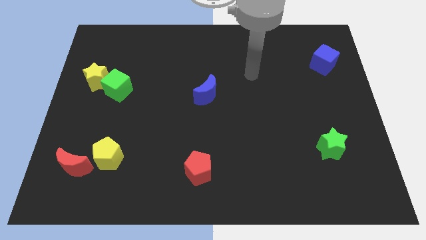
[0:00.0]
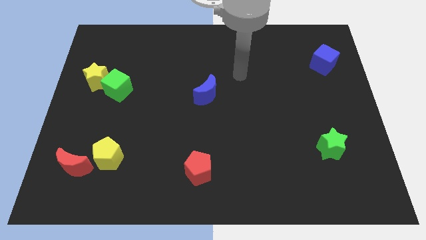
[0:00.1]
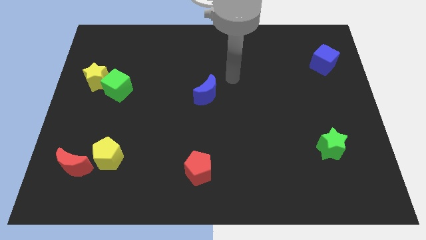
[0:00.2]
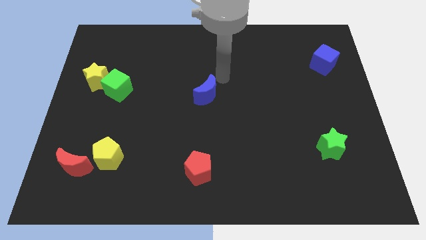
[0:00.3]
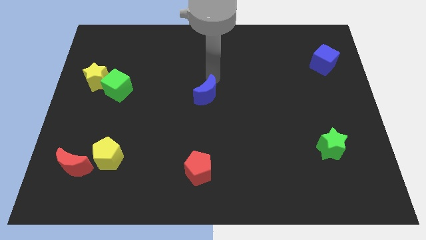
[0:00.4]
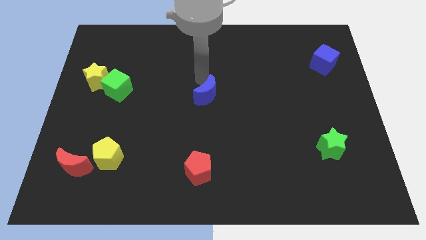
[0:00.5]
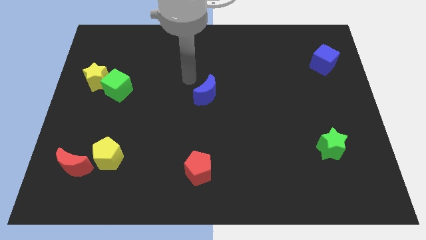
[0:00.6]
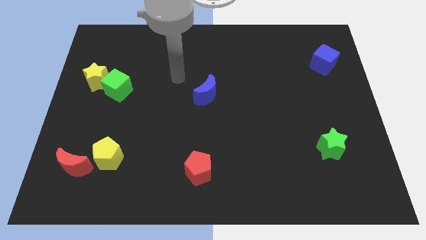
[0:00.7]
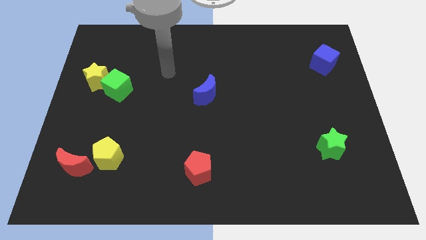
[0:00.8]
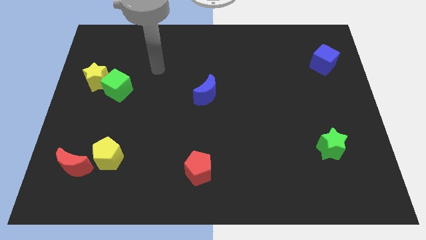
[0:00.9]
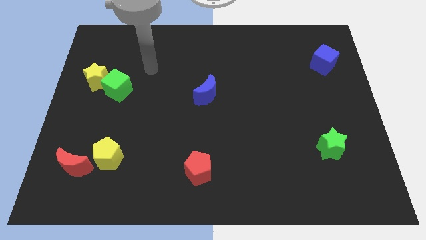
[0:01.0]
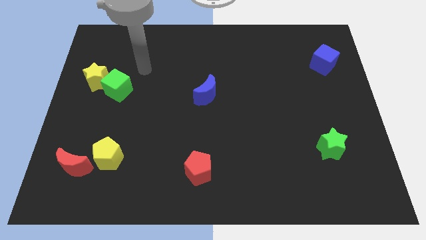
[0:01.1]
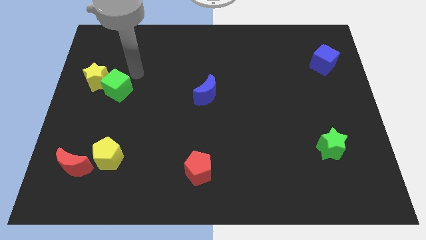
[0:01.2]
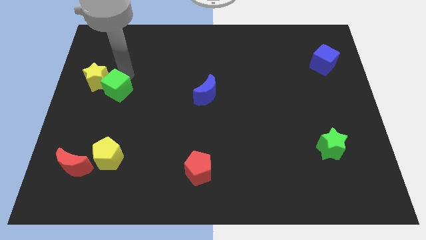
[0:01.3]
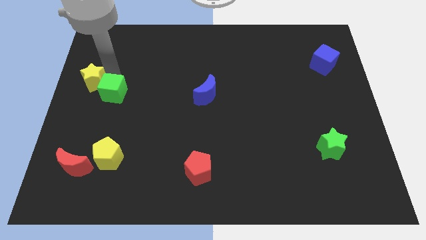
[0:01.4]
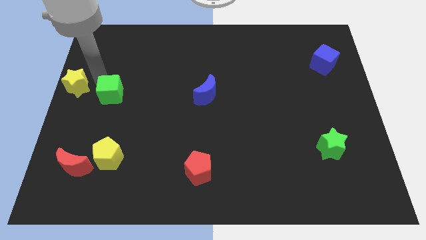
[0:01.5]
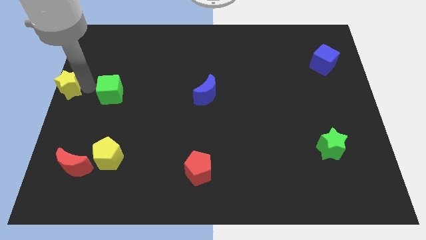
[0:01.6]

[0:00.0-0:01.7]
separate the green cube from the yellow star

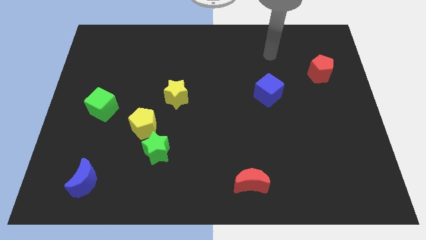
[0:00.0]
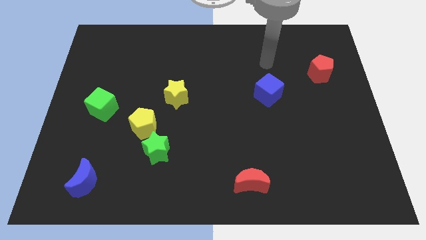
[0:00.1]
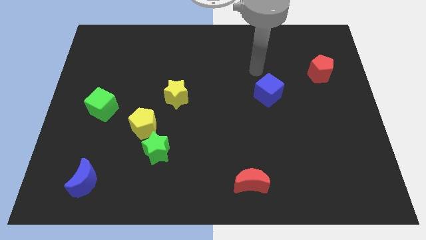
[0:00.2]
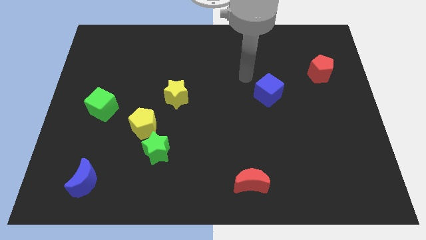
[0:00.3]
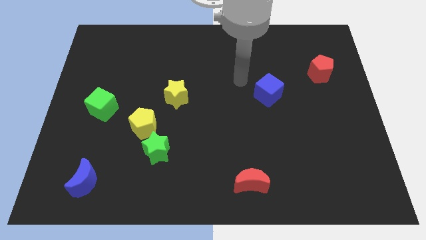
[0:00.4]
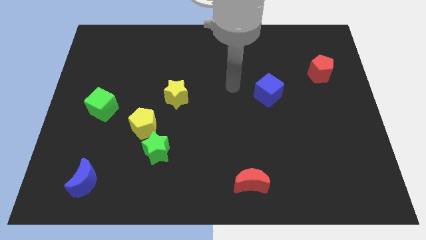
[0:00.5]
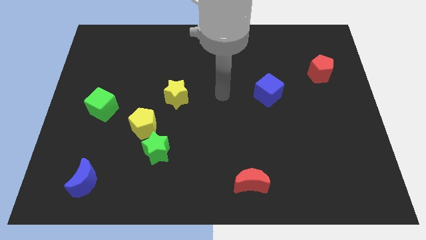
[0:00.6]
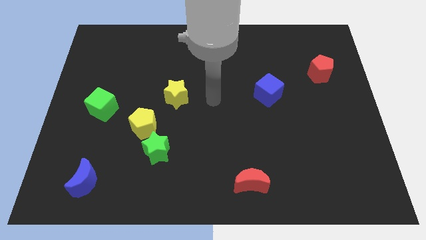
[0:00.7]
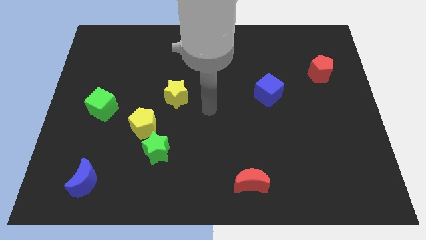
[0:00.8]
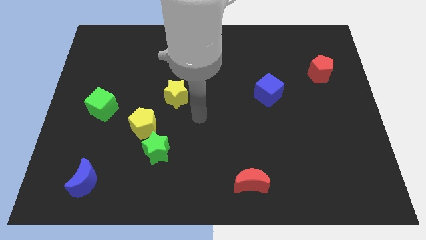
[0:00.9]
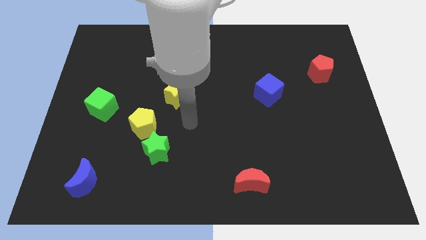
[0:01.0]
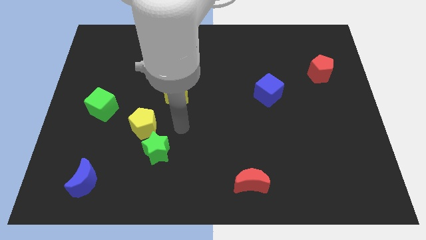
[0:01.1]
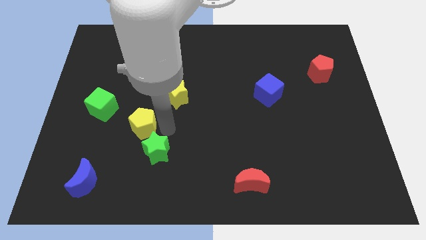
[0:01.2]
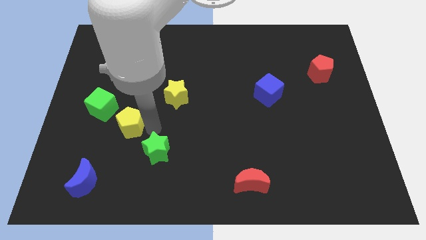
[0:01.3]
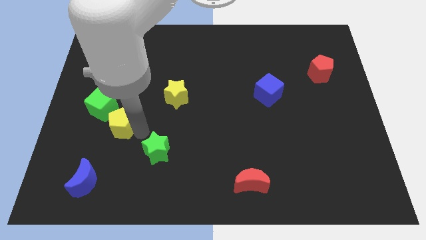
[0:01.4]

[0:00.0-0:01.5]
pull the green star apart from the yellow pentagon

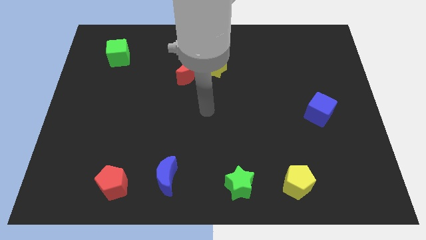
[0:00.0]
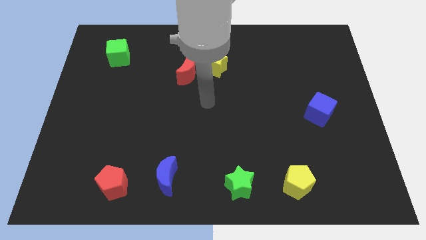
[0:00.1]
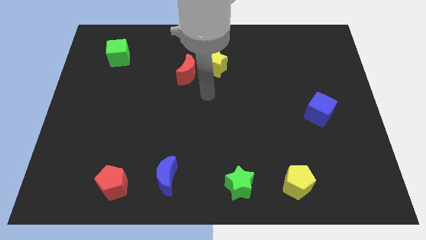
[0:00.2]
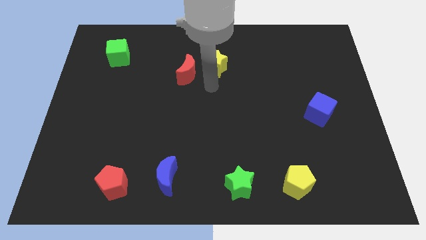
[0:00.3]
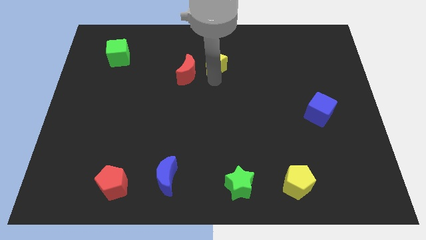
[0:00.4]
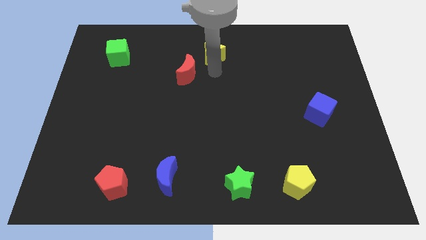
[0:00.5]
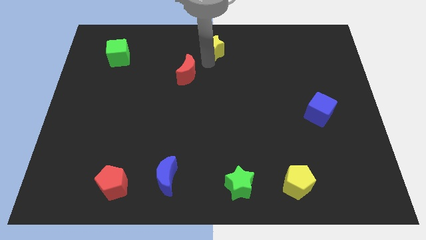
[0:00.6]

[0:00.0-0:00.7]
pull the red moon apart from the yellow star

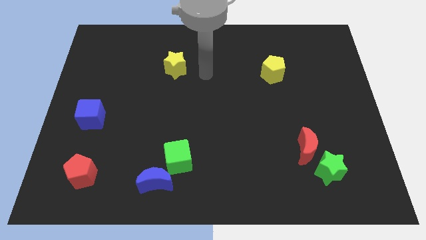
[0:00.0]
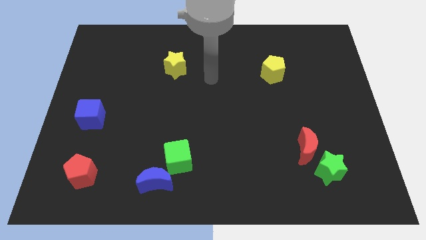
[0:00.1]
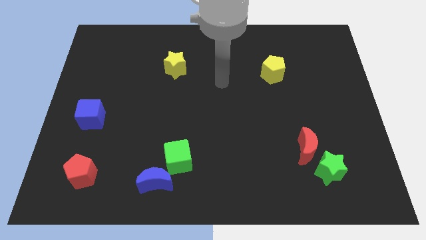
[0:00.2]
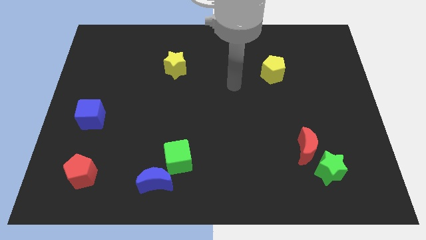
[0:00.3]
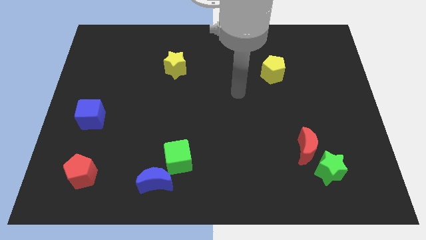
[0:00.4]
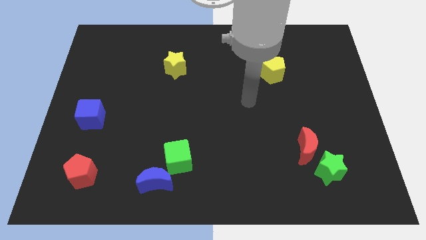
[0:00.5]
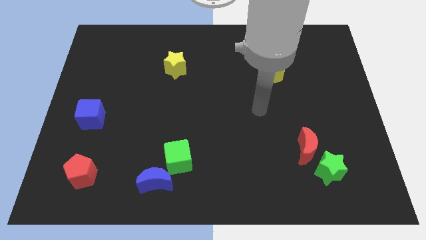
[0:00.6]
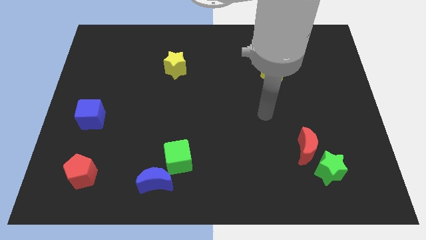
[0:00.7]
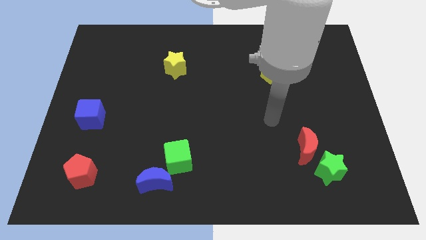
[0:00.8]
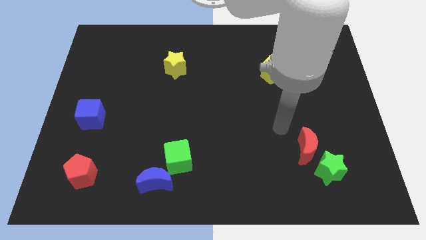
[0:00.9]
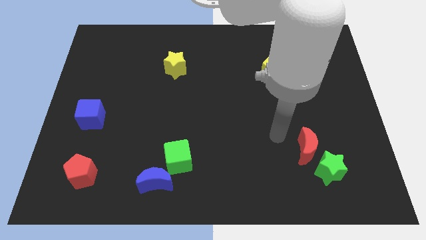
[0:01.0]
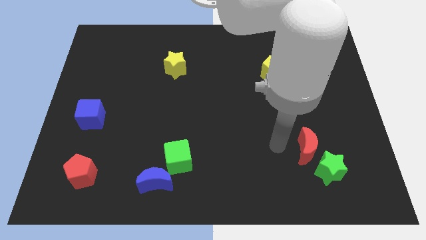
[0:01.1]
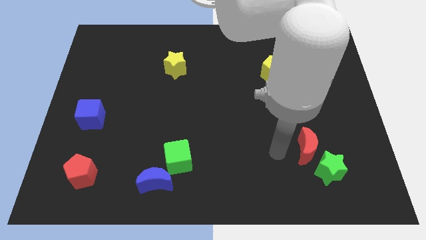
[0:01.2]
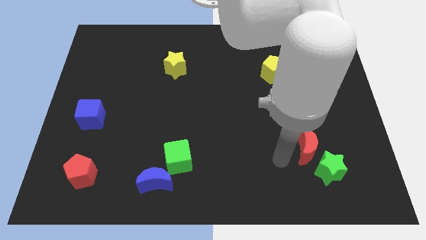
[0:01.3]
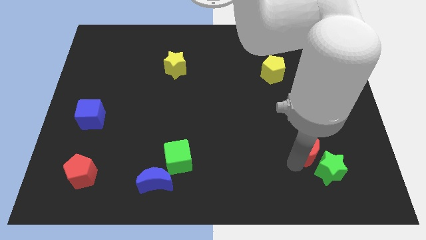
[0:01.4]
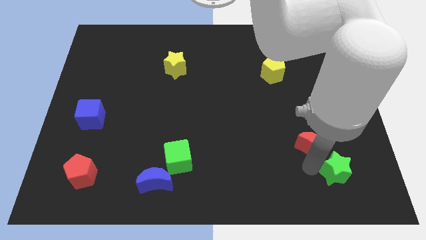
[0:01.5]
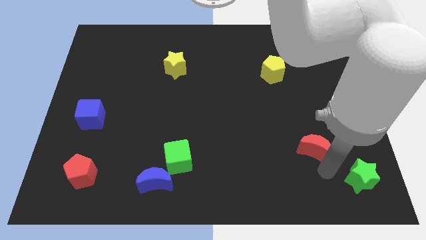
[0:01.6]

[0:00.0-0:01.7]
move the red moon away from the green star

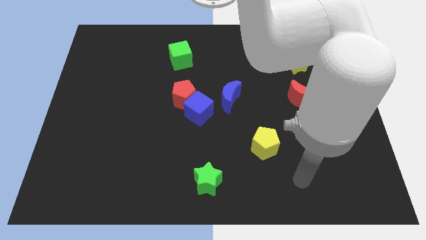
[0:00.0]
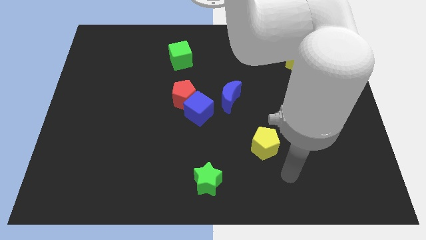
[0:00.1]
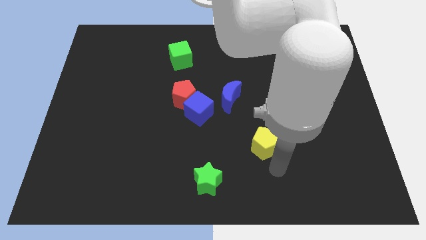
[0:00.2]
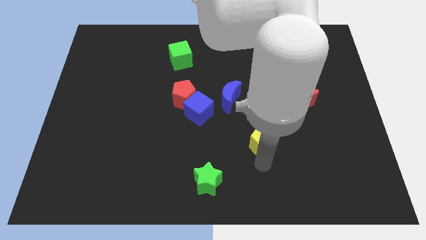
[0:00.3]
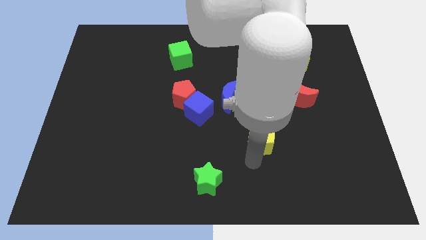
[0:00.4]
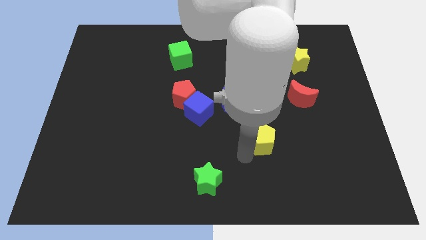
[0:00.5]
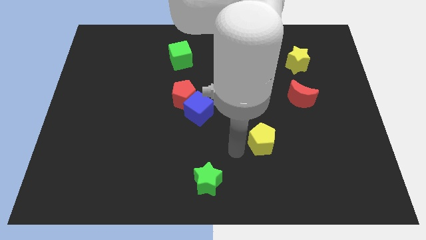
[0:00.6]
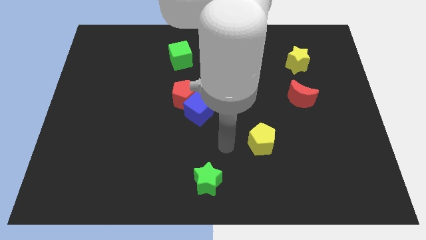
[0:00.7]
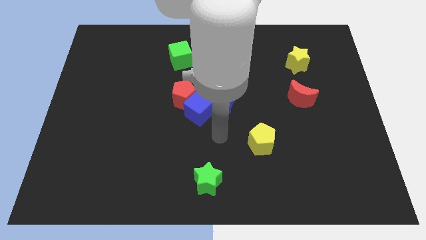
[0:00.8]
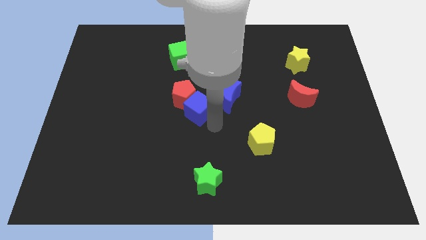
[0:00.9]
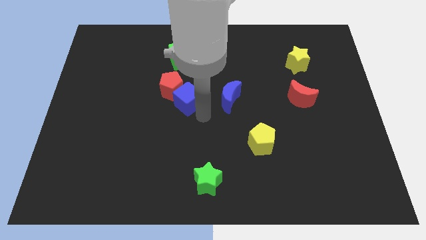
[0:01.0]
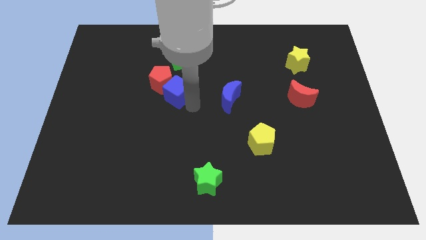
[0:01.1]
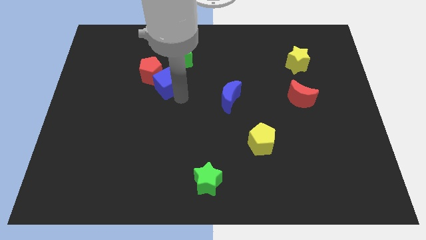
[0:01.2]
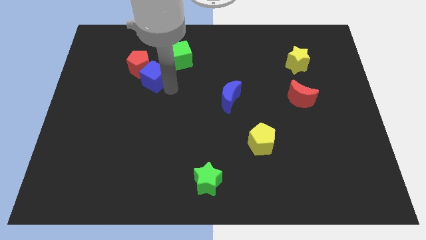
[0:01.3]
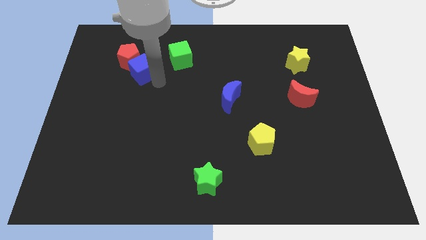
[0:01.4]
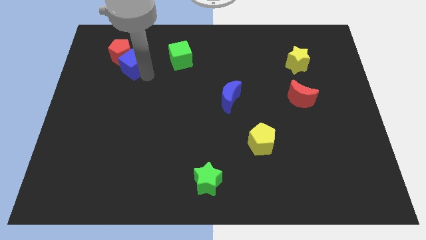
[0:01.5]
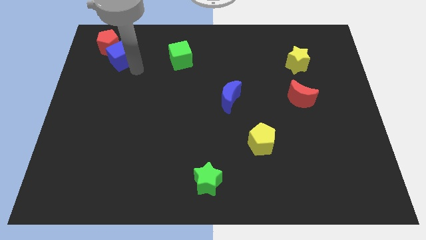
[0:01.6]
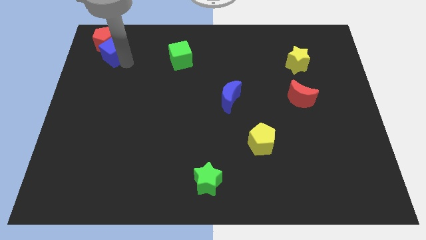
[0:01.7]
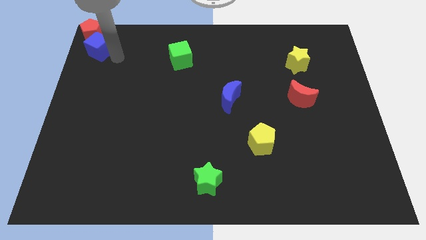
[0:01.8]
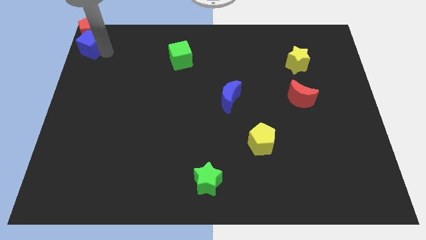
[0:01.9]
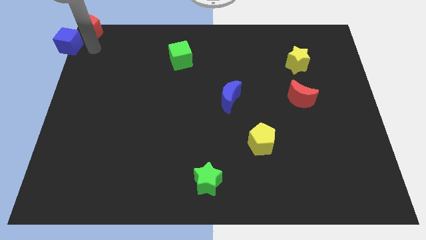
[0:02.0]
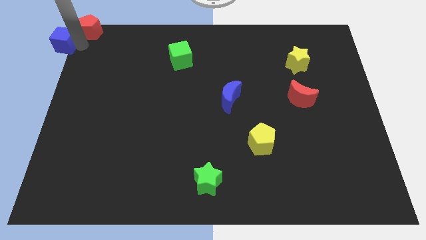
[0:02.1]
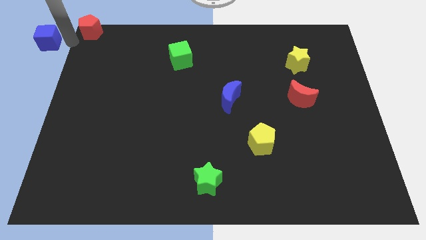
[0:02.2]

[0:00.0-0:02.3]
pull the red pentagon apart from the blue cube

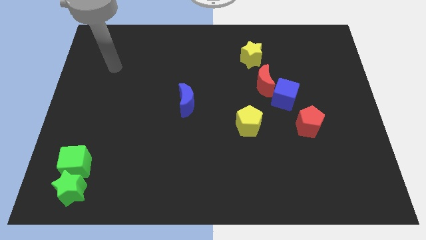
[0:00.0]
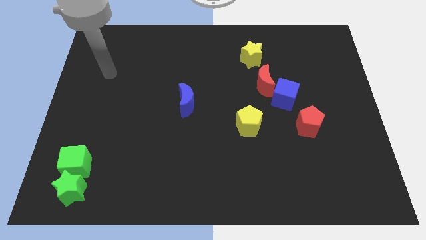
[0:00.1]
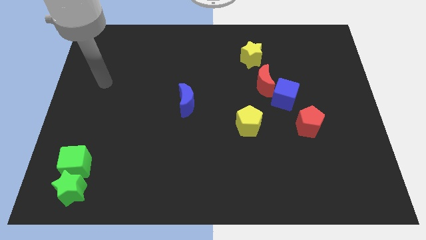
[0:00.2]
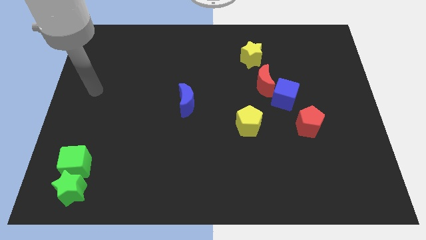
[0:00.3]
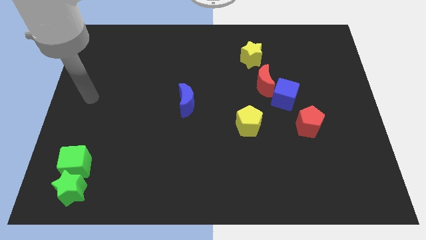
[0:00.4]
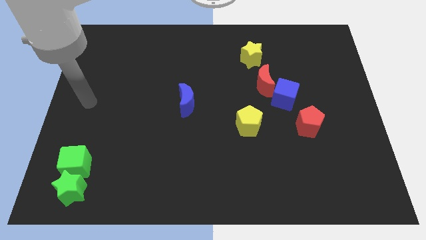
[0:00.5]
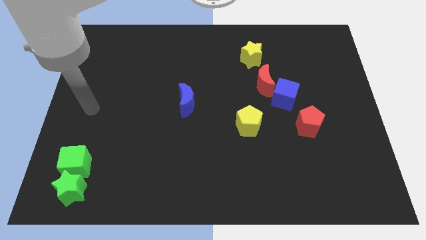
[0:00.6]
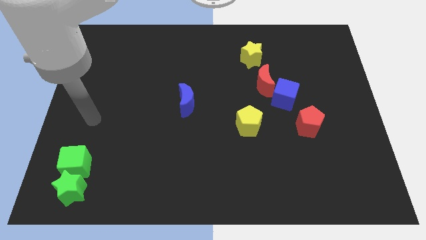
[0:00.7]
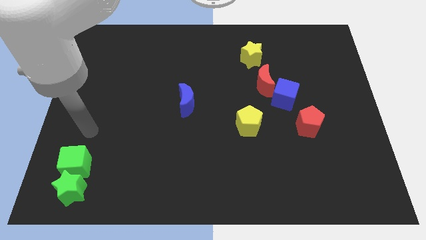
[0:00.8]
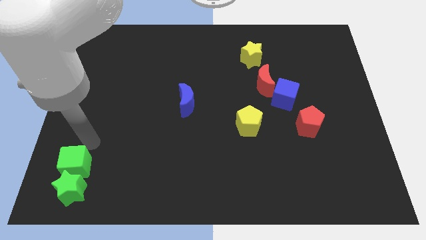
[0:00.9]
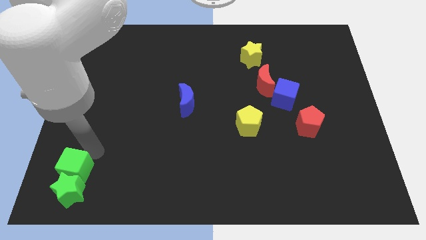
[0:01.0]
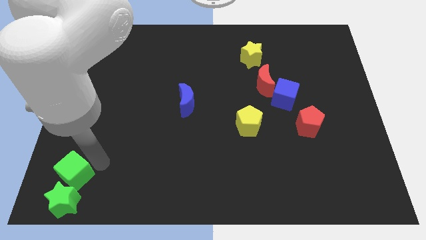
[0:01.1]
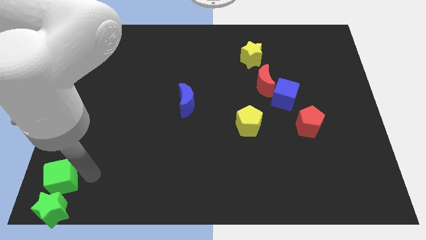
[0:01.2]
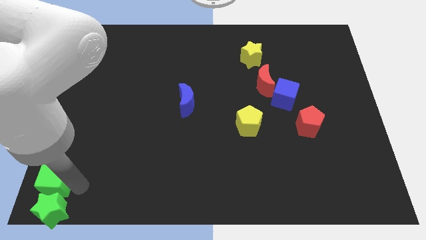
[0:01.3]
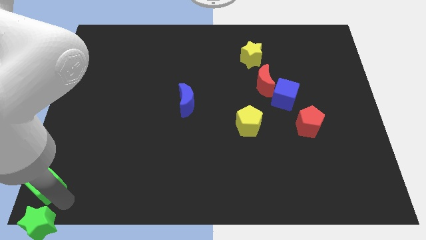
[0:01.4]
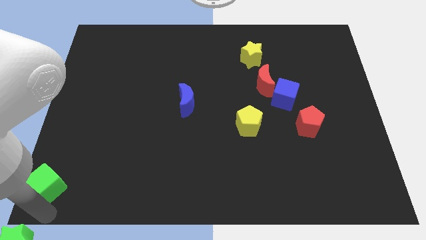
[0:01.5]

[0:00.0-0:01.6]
pull the green cube apart from the green star
